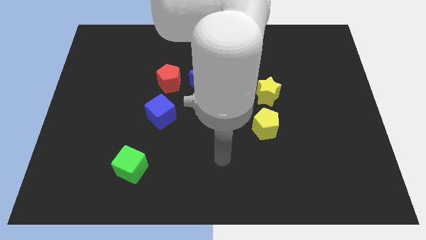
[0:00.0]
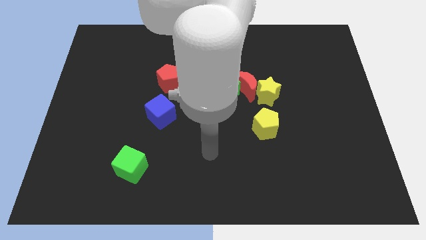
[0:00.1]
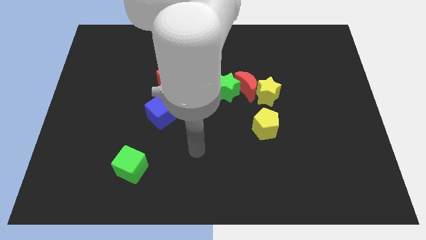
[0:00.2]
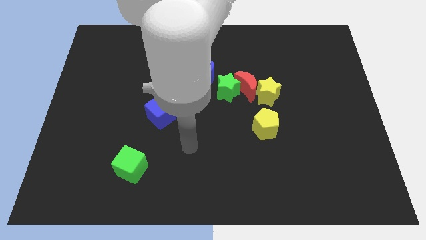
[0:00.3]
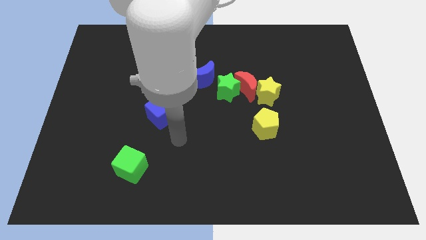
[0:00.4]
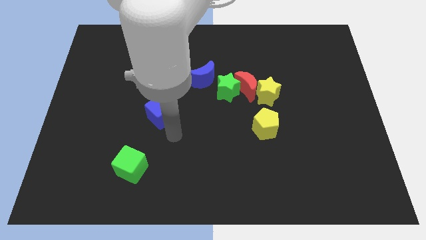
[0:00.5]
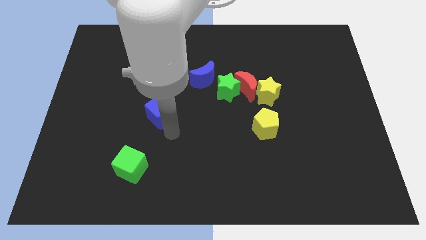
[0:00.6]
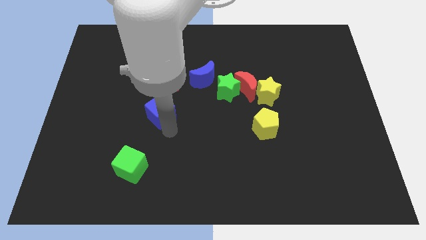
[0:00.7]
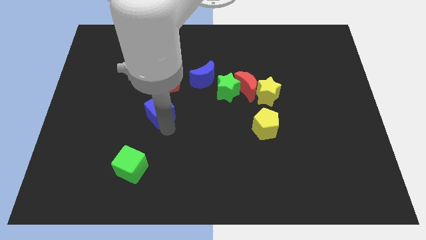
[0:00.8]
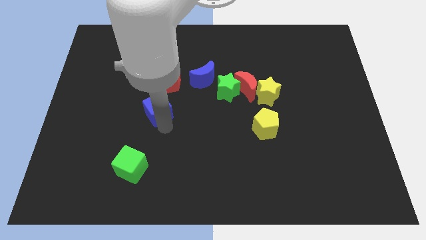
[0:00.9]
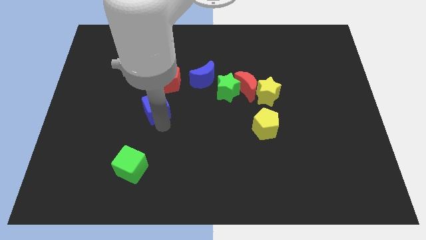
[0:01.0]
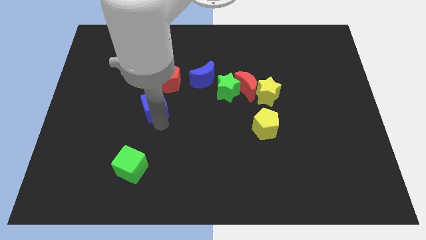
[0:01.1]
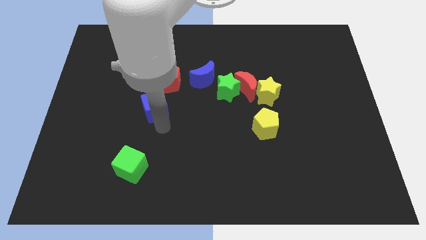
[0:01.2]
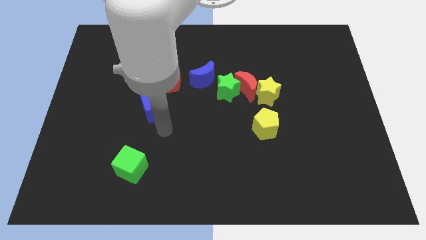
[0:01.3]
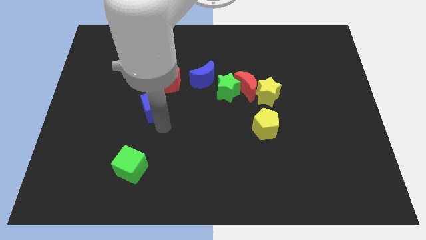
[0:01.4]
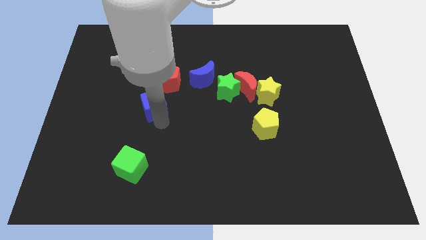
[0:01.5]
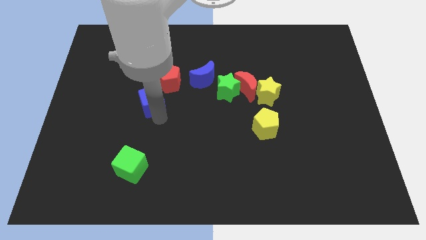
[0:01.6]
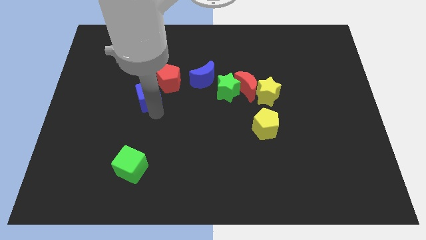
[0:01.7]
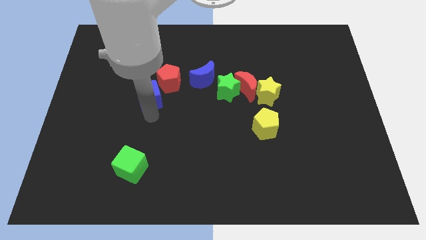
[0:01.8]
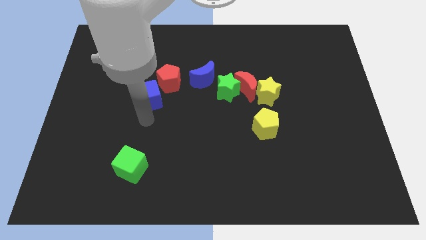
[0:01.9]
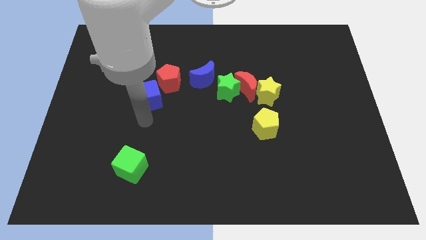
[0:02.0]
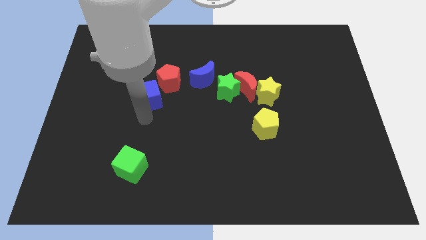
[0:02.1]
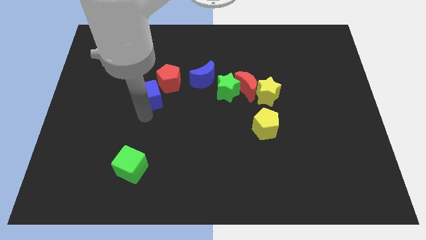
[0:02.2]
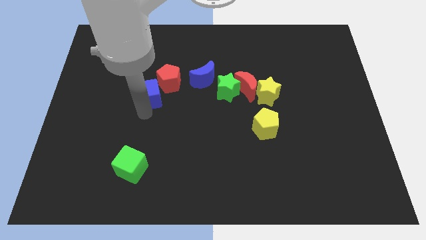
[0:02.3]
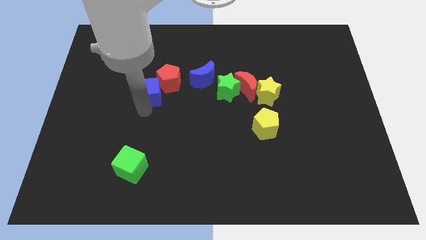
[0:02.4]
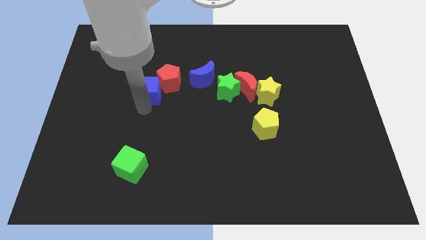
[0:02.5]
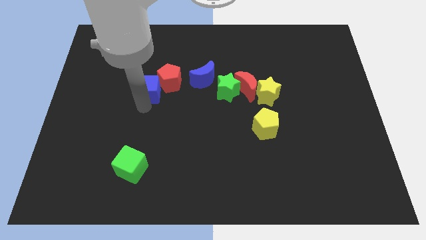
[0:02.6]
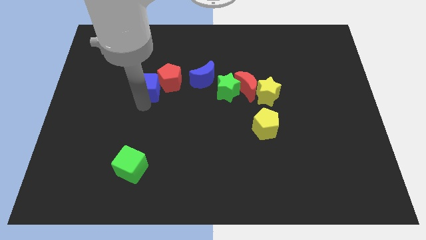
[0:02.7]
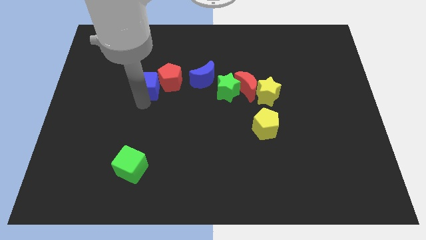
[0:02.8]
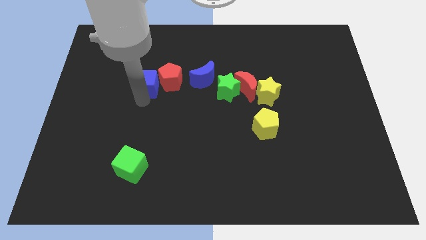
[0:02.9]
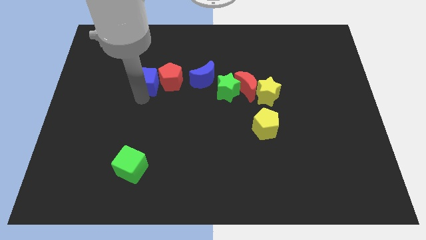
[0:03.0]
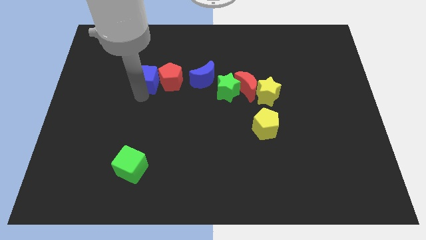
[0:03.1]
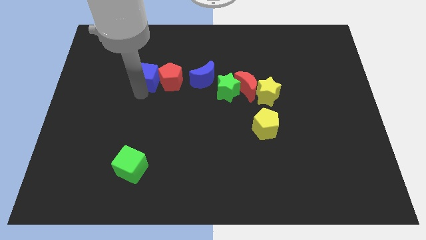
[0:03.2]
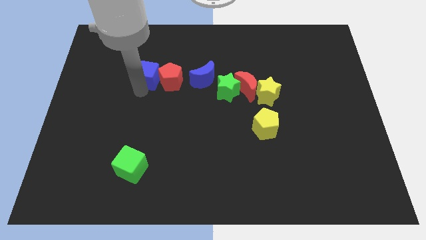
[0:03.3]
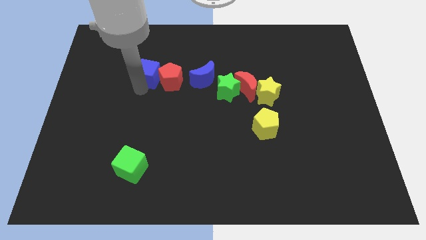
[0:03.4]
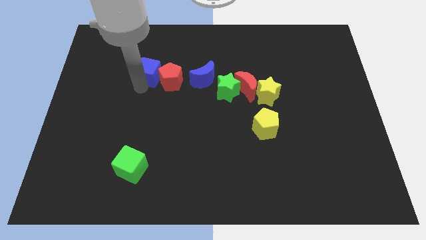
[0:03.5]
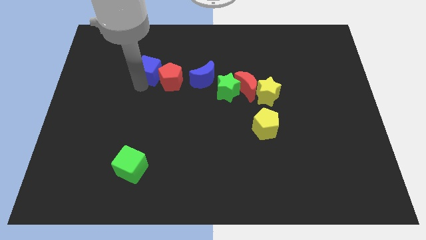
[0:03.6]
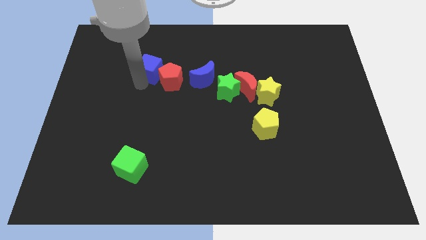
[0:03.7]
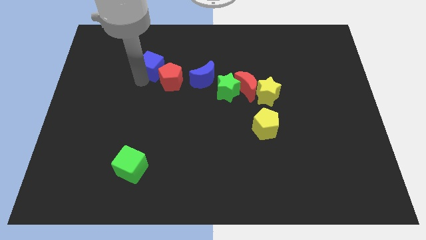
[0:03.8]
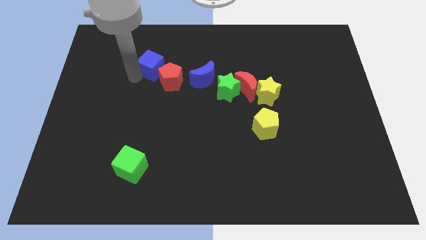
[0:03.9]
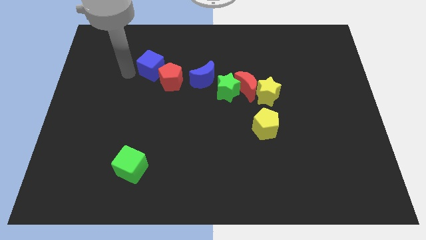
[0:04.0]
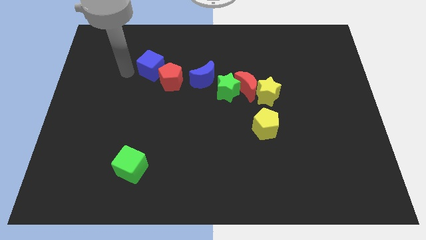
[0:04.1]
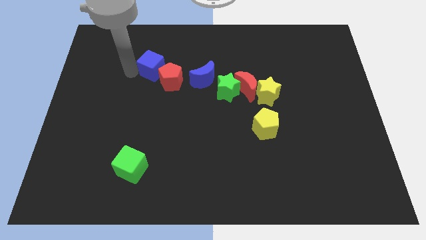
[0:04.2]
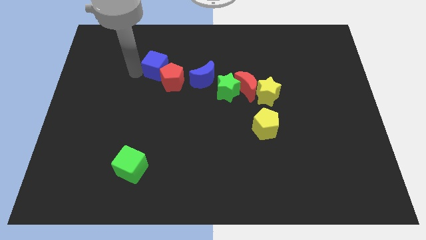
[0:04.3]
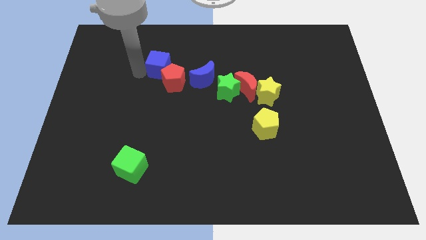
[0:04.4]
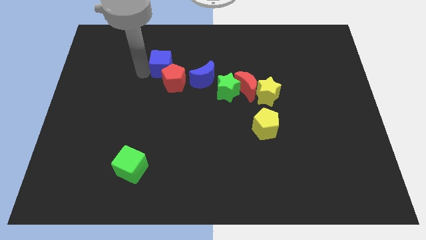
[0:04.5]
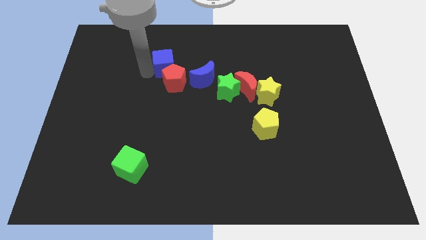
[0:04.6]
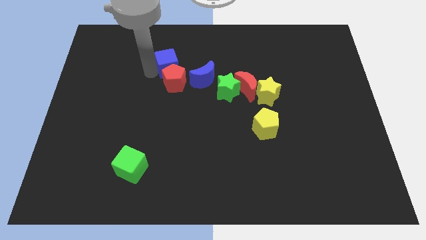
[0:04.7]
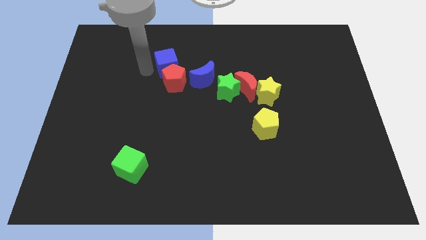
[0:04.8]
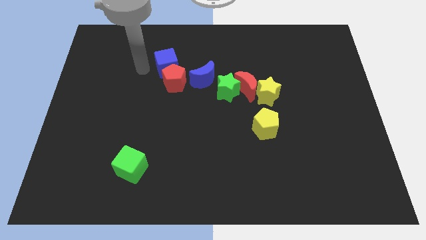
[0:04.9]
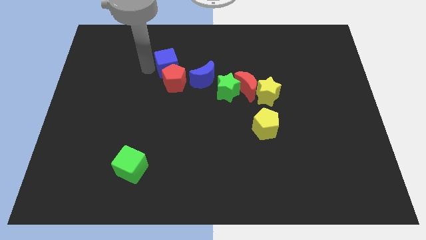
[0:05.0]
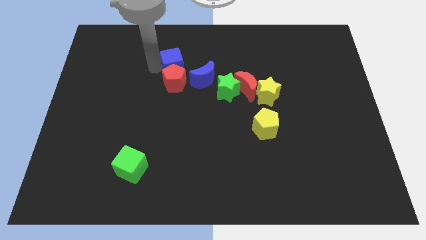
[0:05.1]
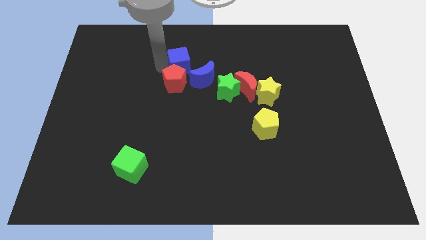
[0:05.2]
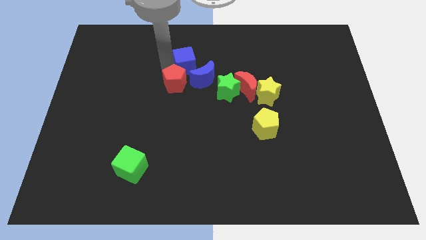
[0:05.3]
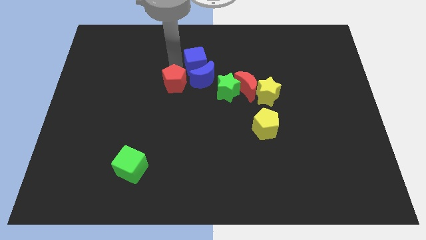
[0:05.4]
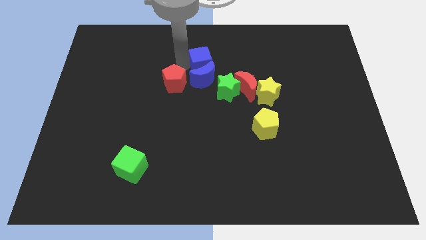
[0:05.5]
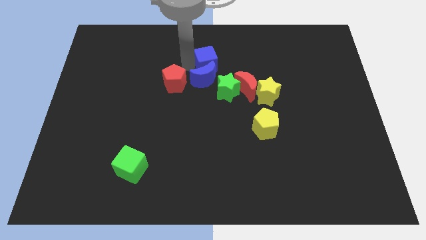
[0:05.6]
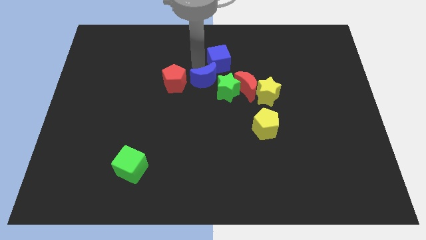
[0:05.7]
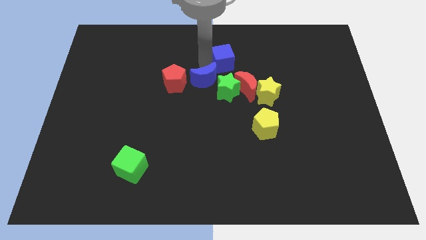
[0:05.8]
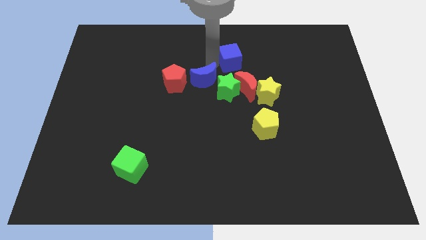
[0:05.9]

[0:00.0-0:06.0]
put the blue cube to the top side of the red moon
